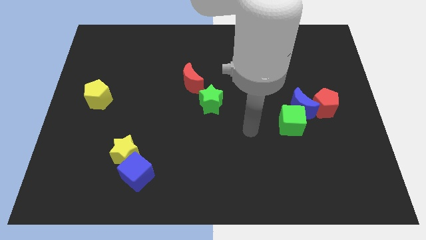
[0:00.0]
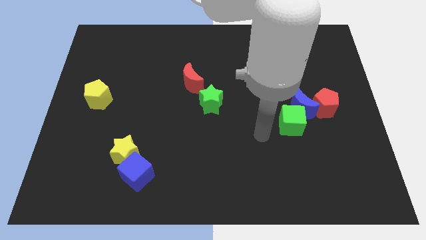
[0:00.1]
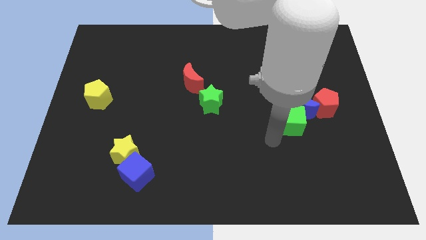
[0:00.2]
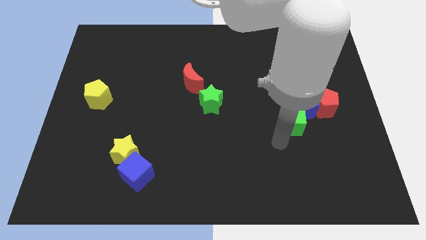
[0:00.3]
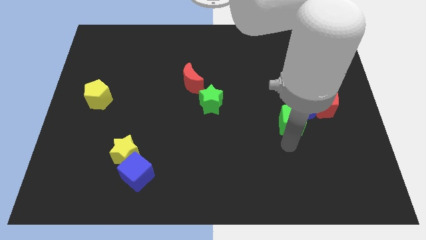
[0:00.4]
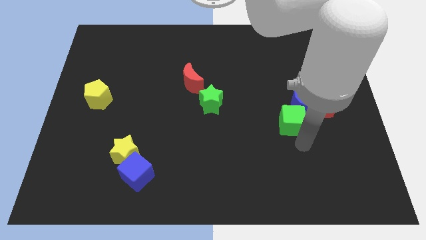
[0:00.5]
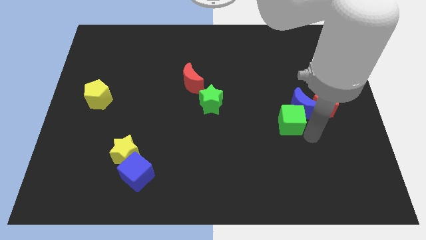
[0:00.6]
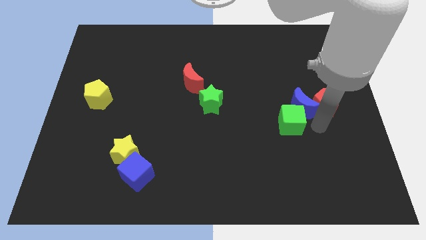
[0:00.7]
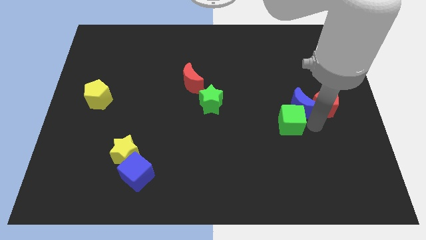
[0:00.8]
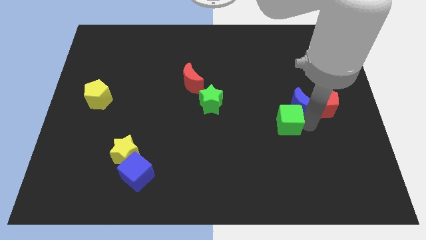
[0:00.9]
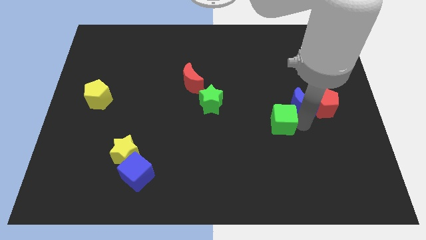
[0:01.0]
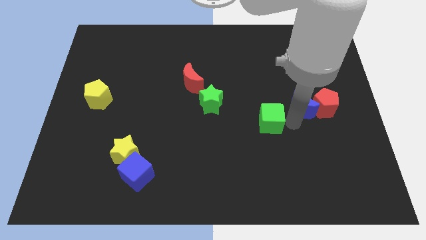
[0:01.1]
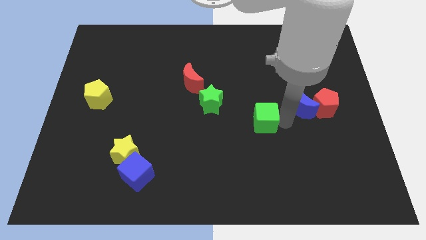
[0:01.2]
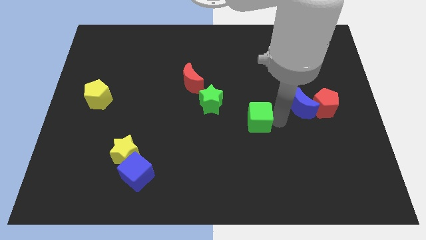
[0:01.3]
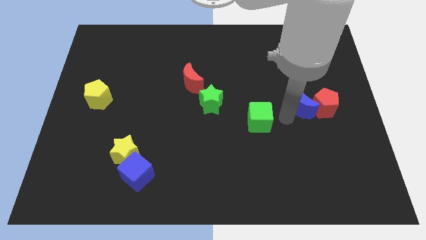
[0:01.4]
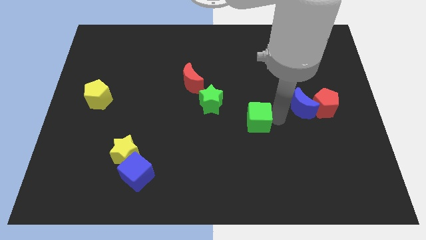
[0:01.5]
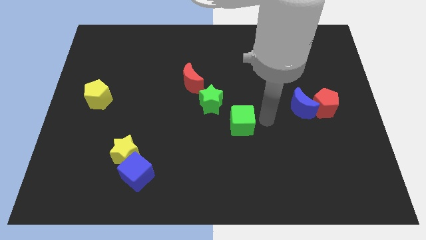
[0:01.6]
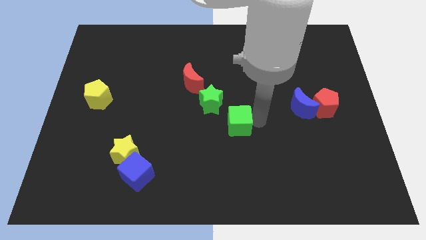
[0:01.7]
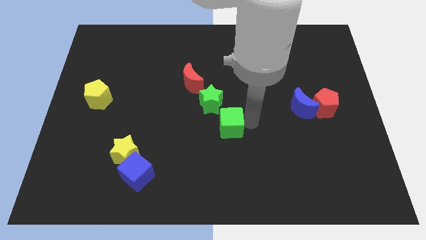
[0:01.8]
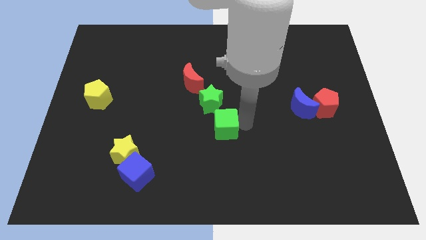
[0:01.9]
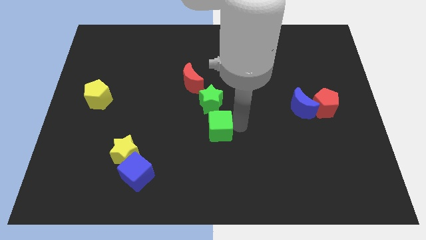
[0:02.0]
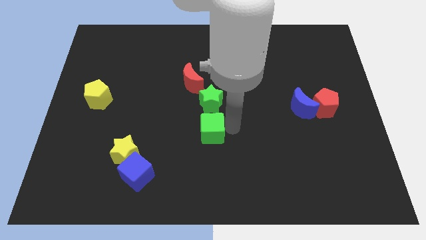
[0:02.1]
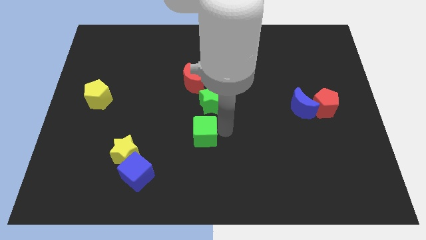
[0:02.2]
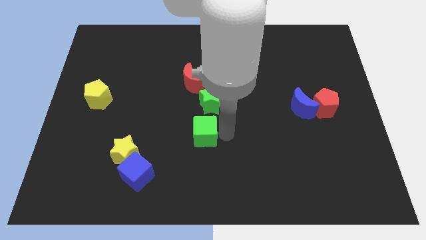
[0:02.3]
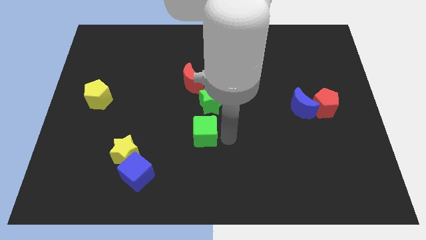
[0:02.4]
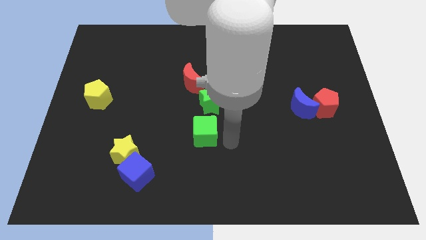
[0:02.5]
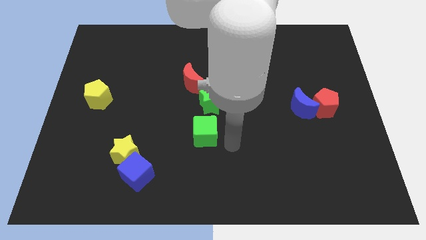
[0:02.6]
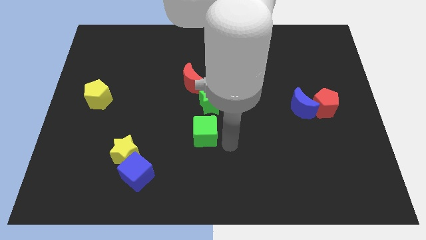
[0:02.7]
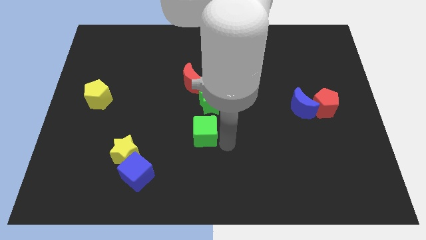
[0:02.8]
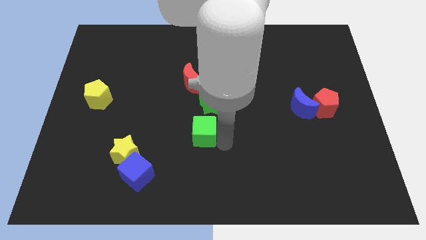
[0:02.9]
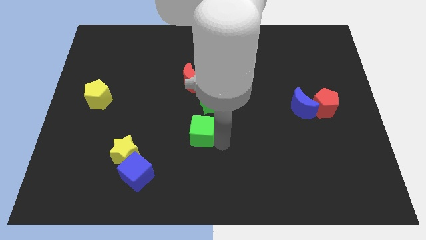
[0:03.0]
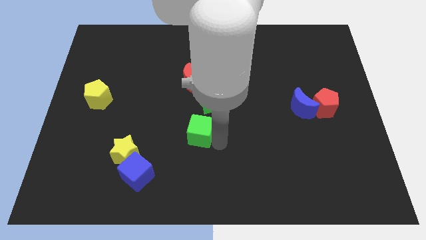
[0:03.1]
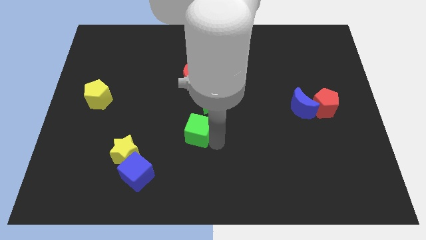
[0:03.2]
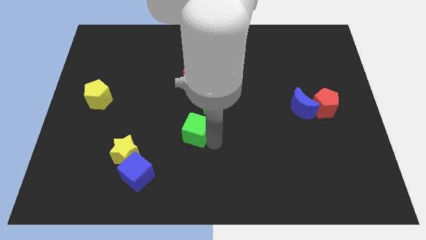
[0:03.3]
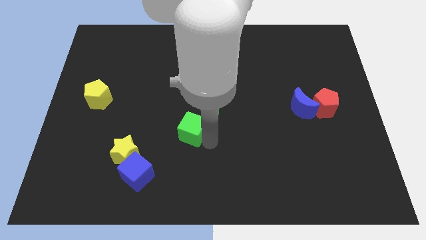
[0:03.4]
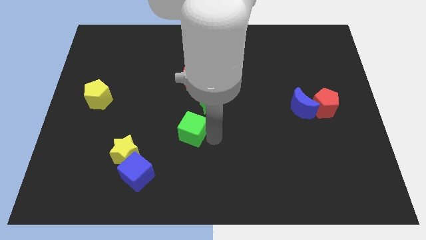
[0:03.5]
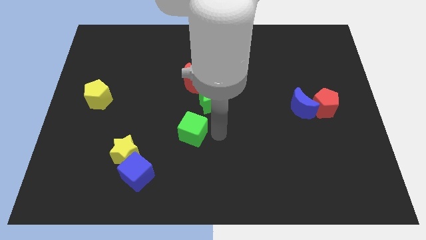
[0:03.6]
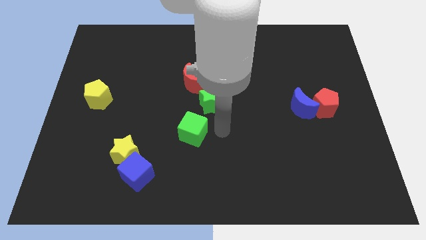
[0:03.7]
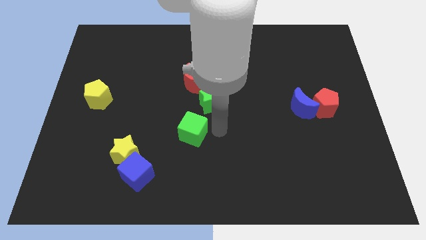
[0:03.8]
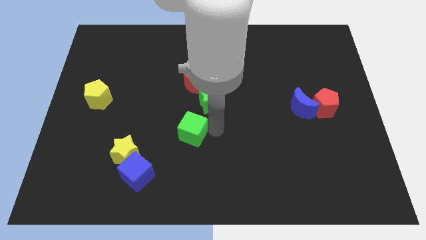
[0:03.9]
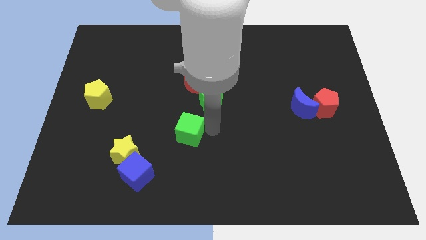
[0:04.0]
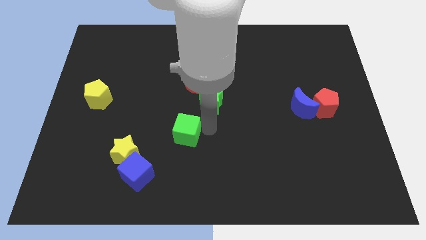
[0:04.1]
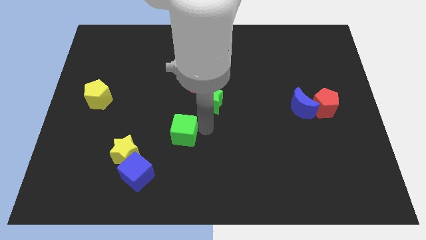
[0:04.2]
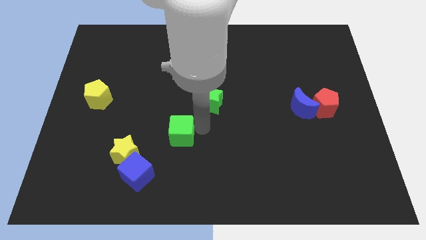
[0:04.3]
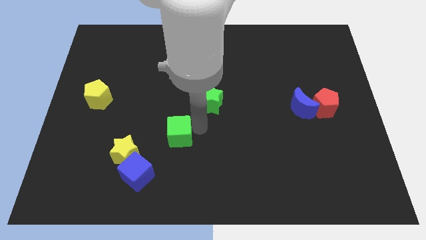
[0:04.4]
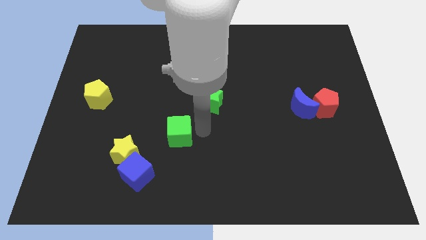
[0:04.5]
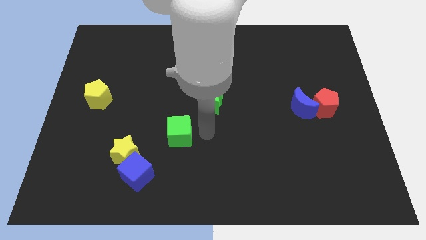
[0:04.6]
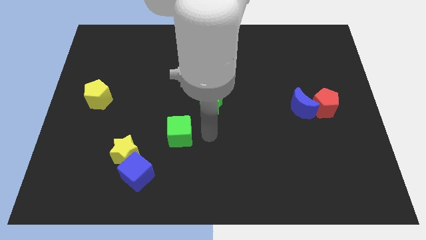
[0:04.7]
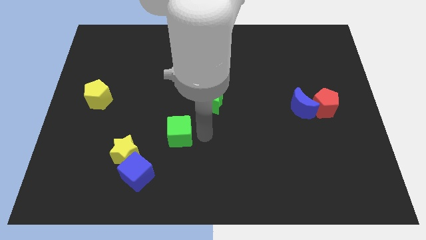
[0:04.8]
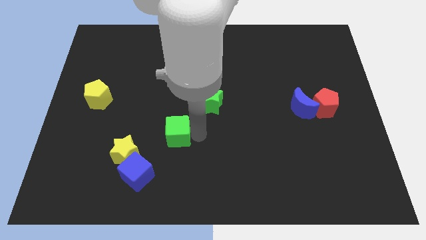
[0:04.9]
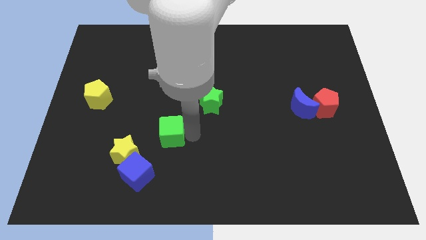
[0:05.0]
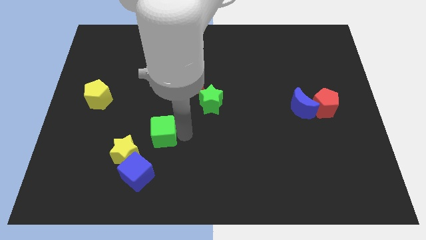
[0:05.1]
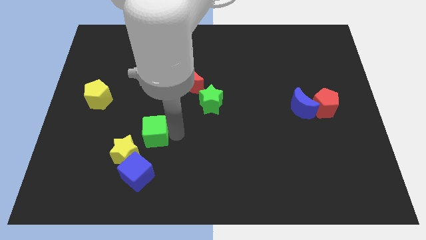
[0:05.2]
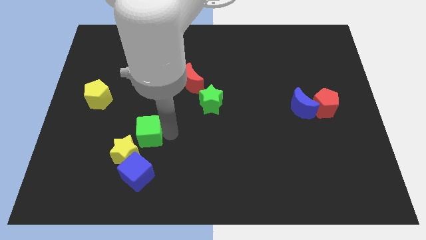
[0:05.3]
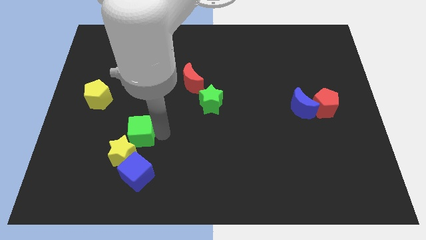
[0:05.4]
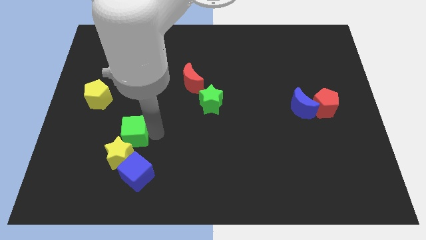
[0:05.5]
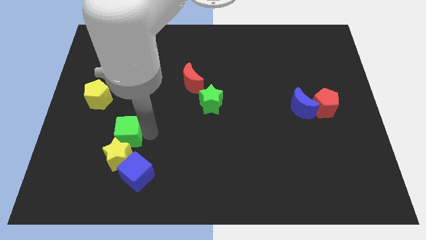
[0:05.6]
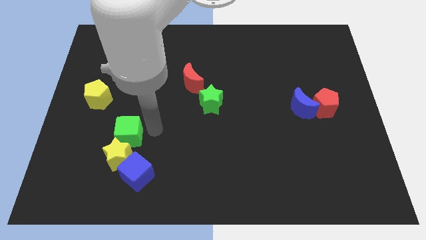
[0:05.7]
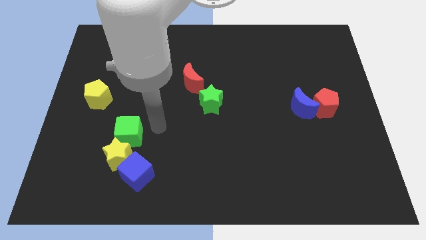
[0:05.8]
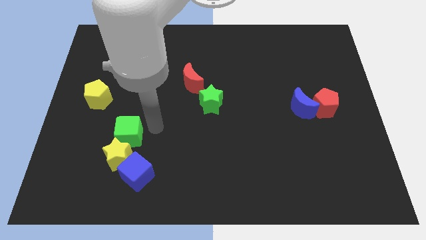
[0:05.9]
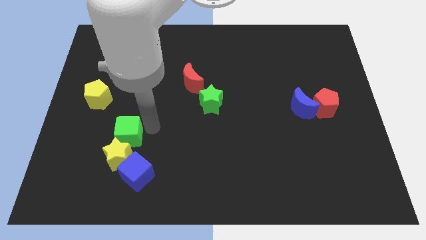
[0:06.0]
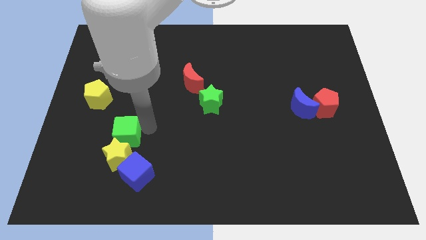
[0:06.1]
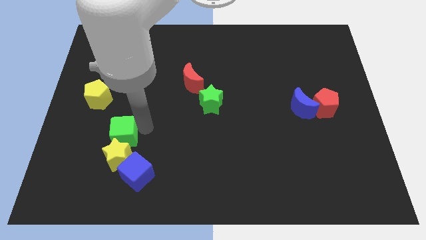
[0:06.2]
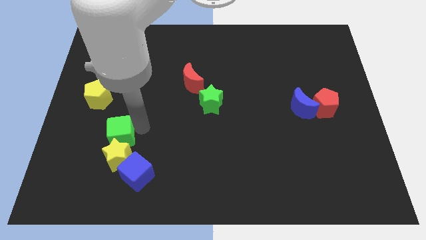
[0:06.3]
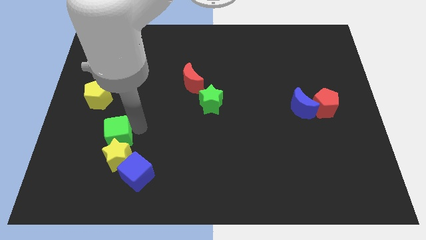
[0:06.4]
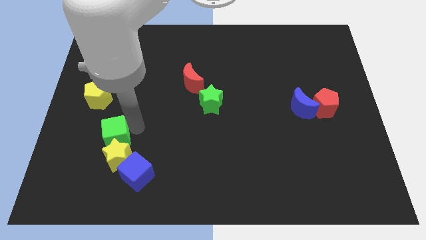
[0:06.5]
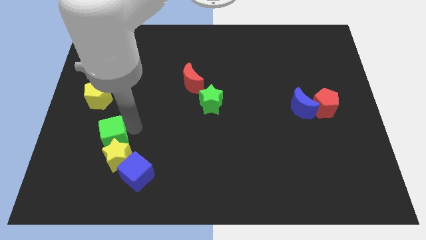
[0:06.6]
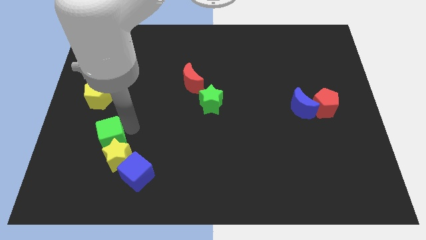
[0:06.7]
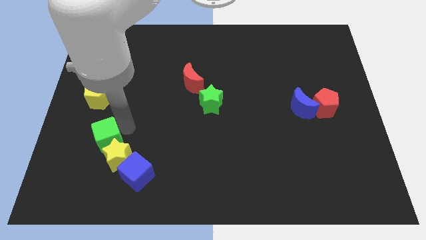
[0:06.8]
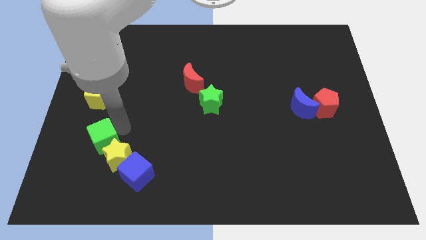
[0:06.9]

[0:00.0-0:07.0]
put the green cube to the left side of the yellow star

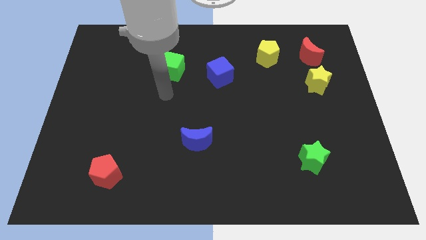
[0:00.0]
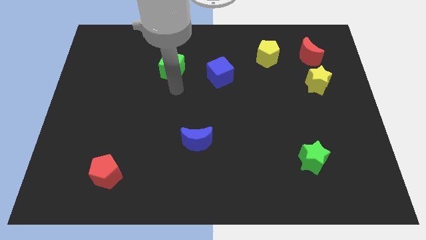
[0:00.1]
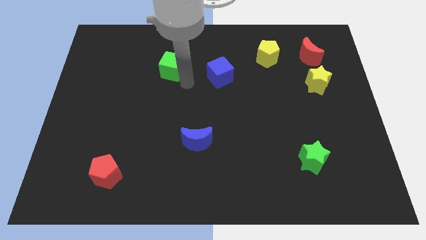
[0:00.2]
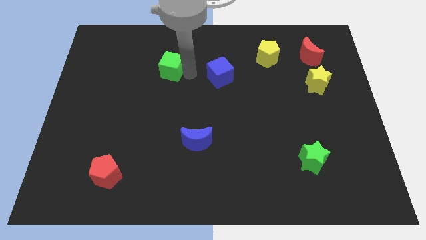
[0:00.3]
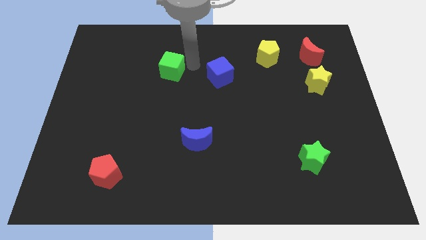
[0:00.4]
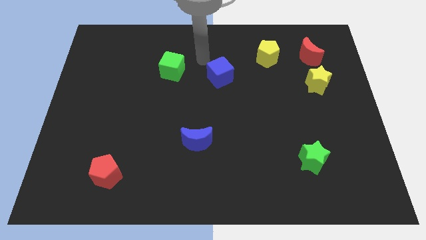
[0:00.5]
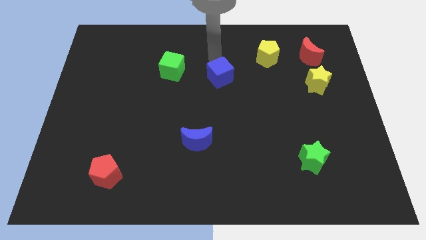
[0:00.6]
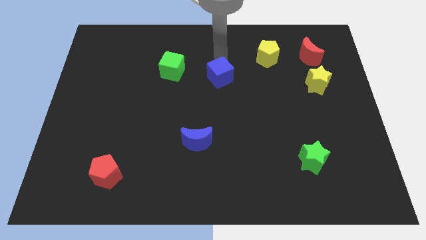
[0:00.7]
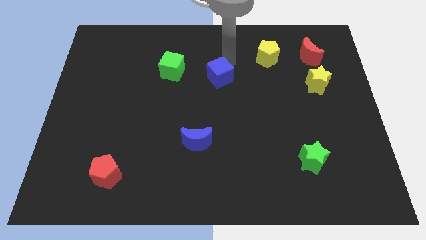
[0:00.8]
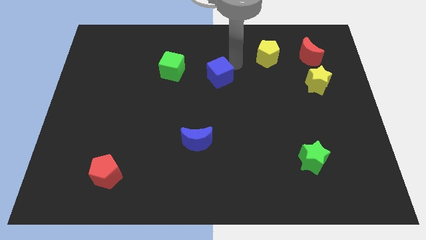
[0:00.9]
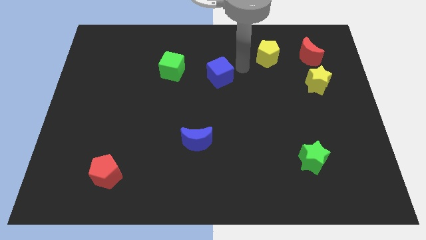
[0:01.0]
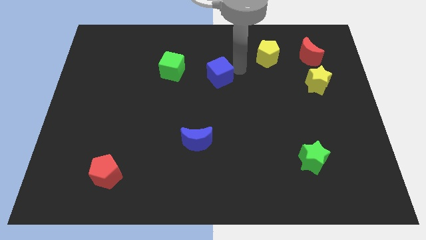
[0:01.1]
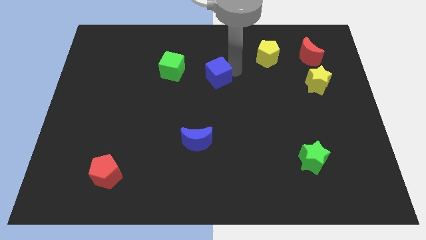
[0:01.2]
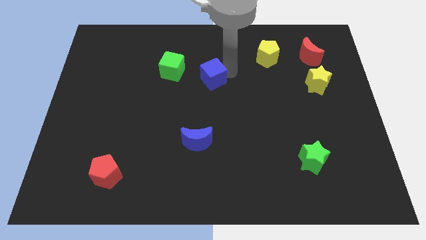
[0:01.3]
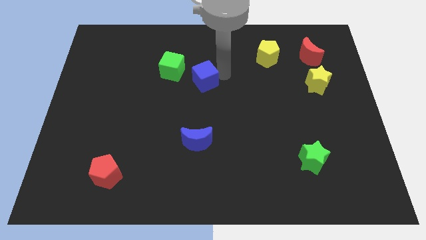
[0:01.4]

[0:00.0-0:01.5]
put the blue cube diagonally down and to the right of the green cube
